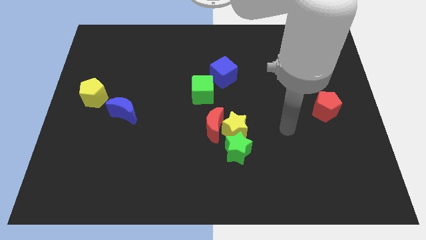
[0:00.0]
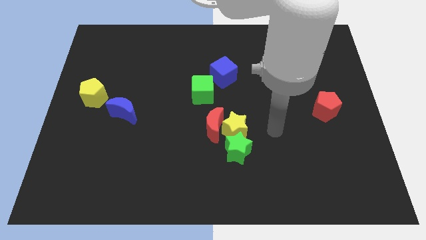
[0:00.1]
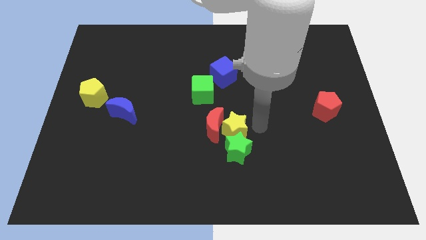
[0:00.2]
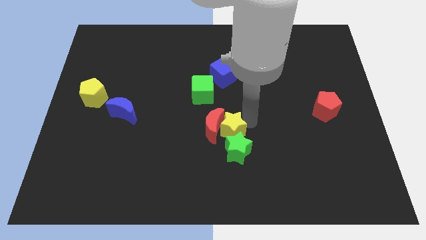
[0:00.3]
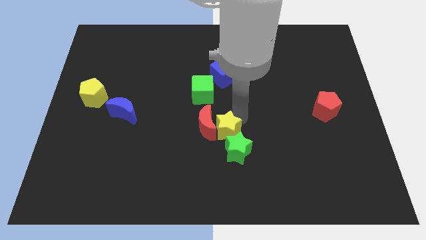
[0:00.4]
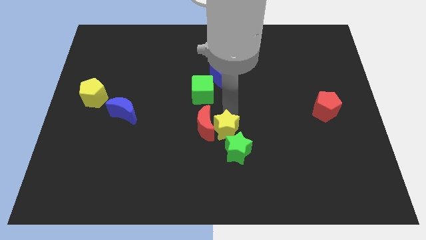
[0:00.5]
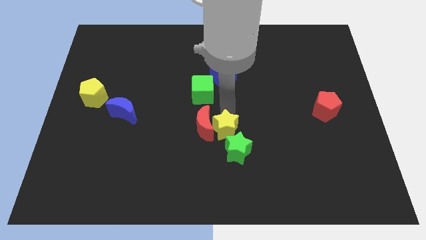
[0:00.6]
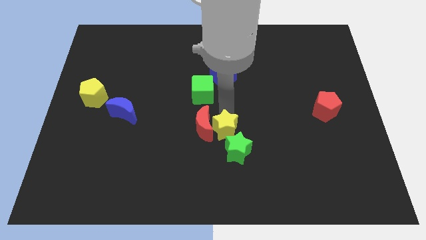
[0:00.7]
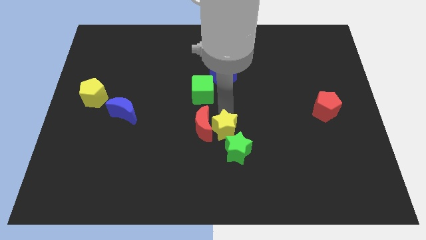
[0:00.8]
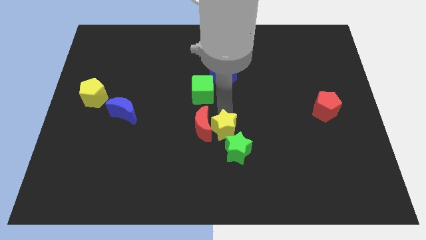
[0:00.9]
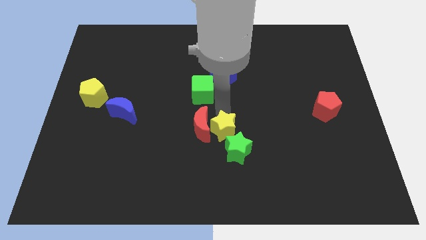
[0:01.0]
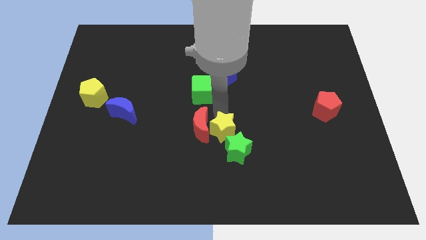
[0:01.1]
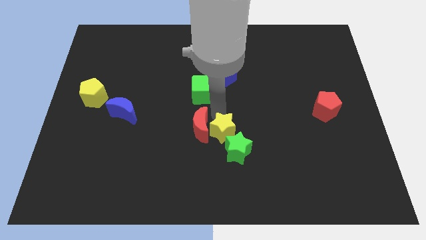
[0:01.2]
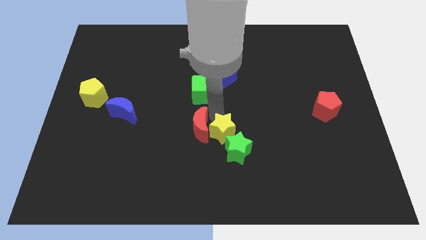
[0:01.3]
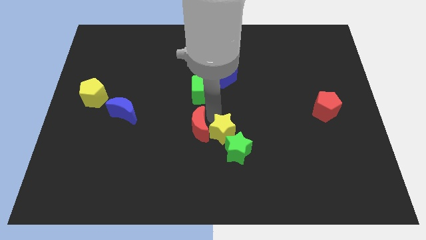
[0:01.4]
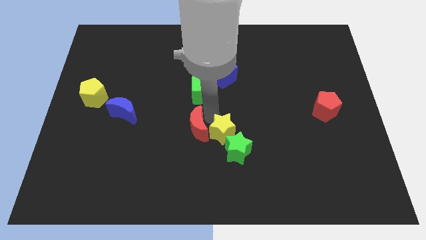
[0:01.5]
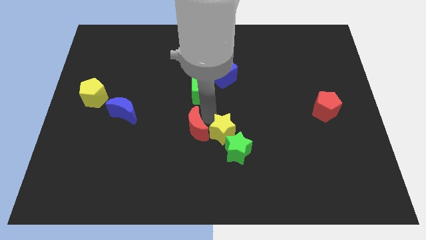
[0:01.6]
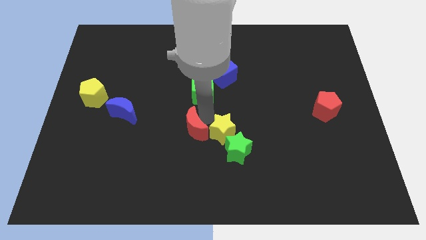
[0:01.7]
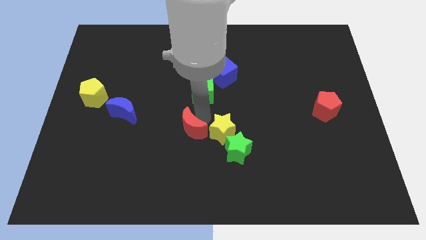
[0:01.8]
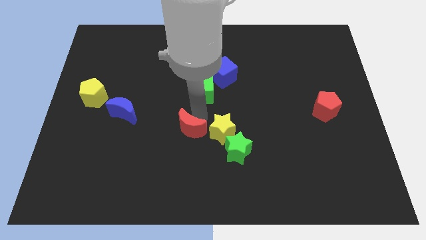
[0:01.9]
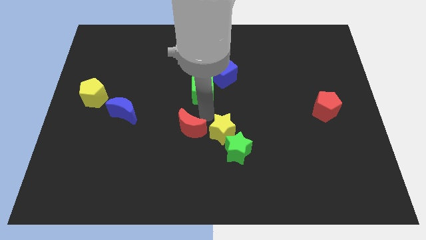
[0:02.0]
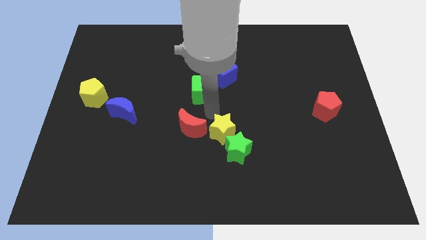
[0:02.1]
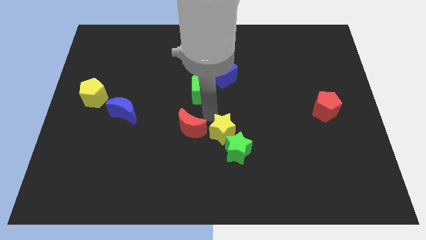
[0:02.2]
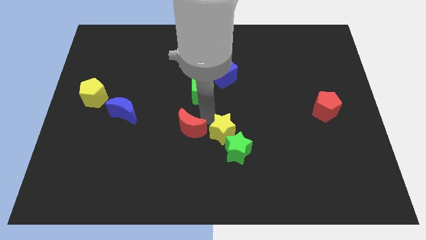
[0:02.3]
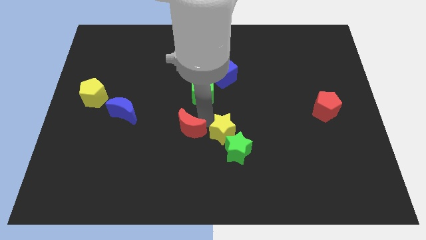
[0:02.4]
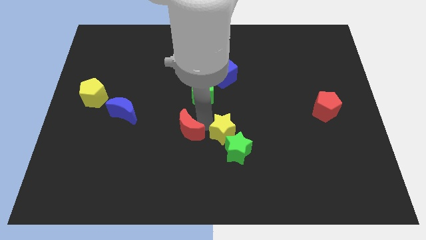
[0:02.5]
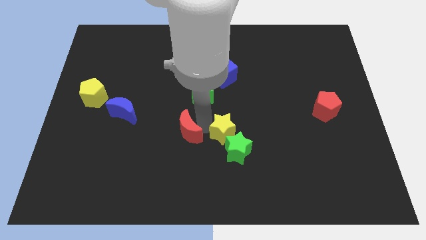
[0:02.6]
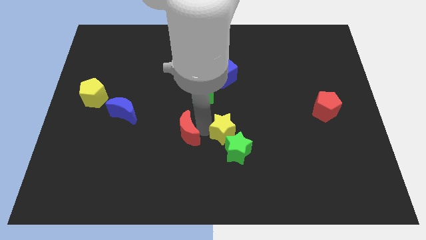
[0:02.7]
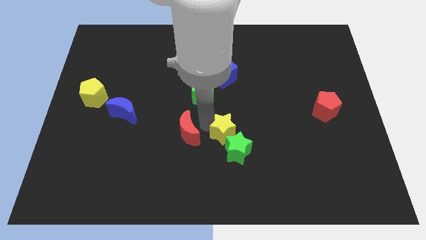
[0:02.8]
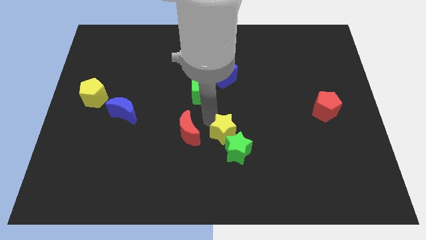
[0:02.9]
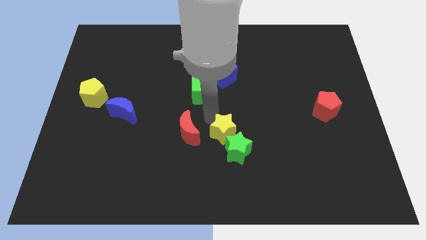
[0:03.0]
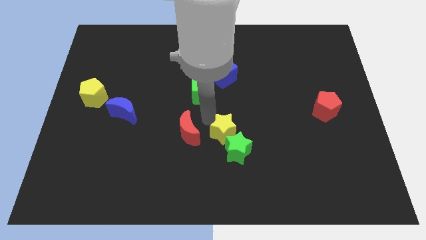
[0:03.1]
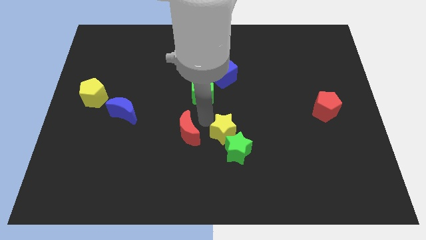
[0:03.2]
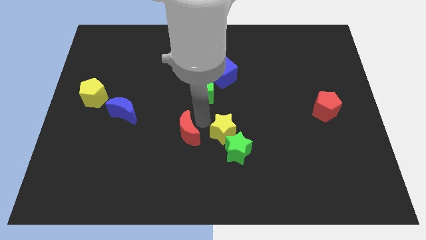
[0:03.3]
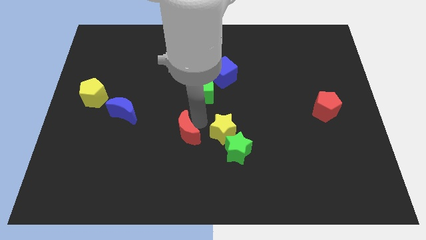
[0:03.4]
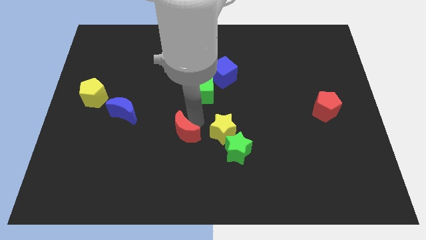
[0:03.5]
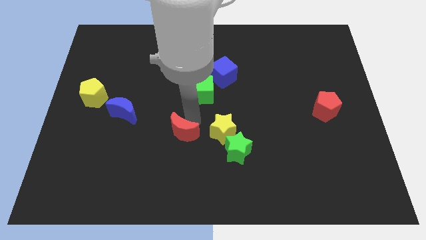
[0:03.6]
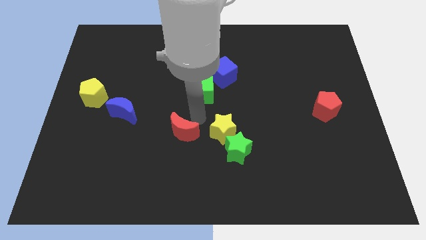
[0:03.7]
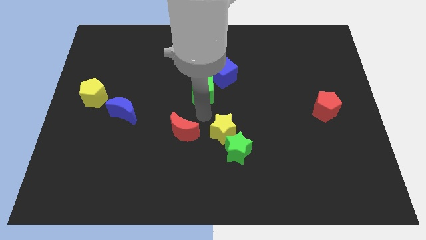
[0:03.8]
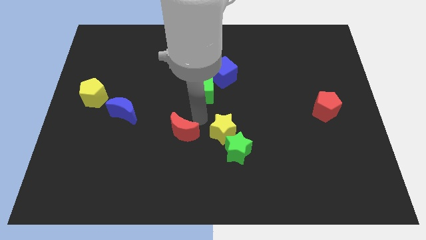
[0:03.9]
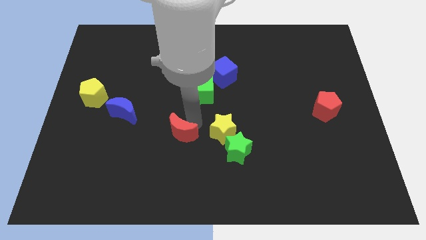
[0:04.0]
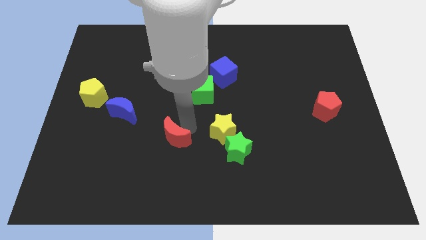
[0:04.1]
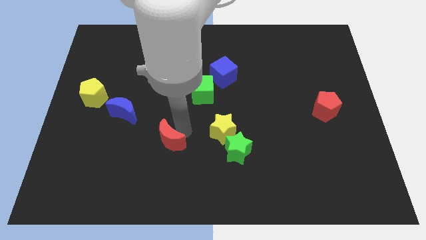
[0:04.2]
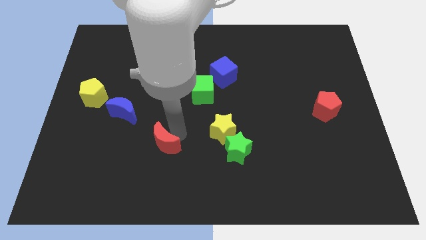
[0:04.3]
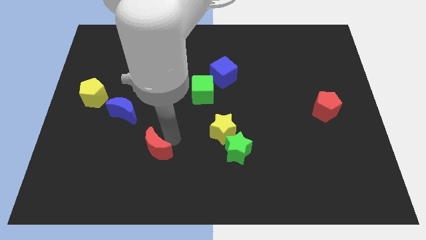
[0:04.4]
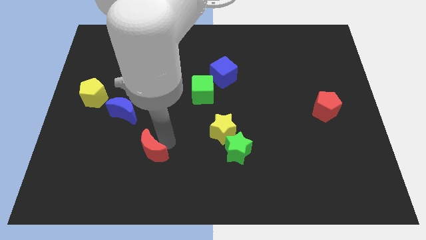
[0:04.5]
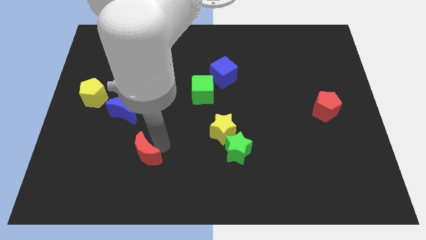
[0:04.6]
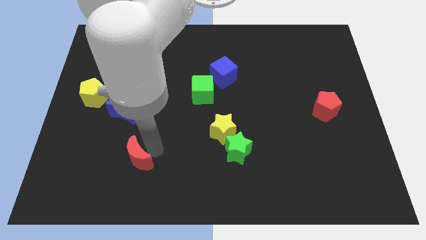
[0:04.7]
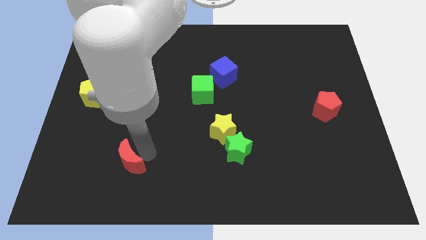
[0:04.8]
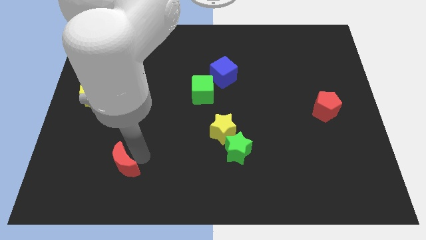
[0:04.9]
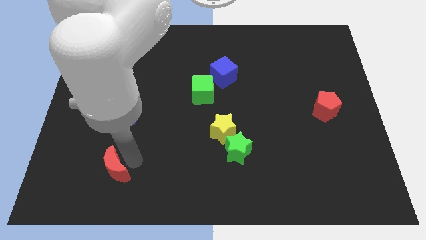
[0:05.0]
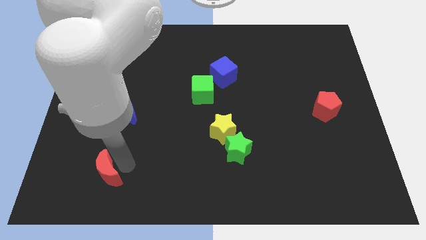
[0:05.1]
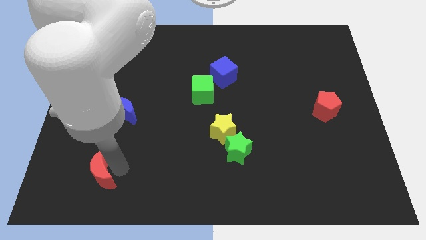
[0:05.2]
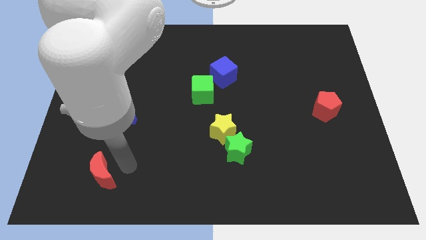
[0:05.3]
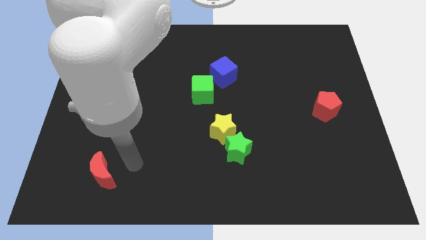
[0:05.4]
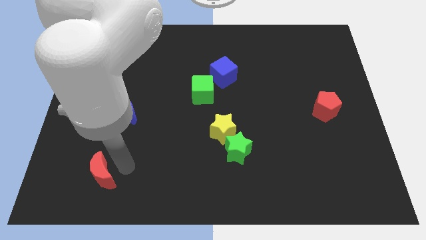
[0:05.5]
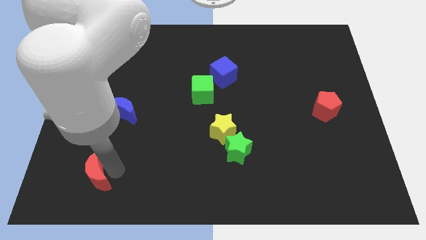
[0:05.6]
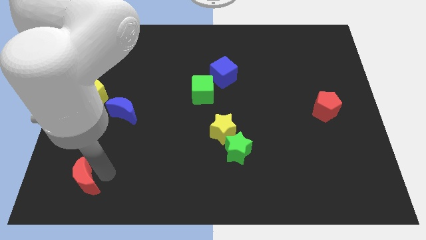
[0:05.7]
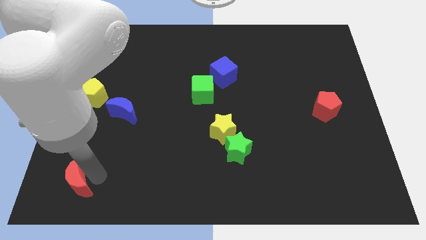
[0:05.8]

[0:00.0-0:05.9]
put the red moon to the bottom left
